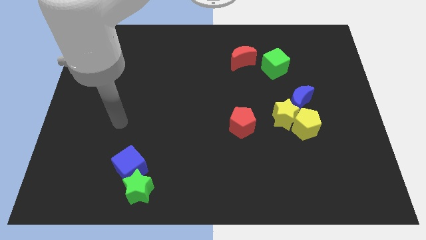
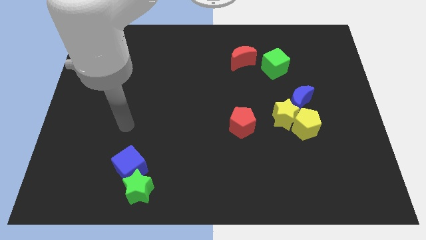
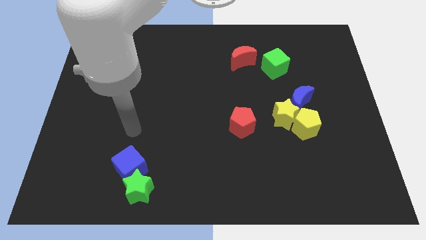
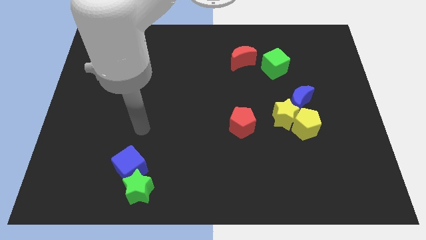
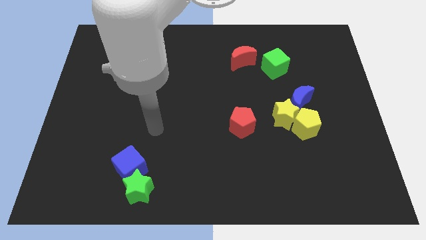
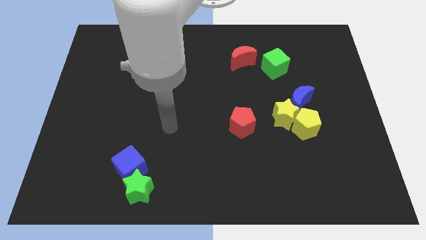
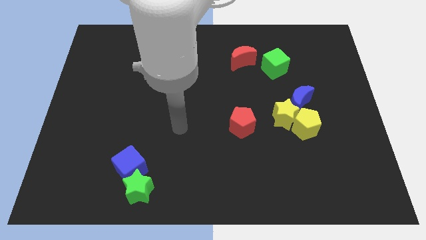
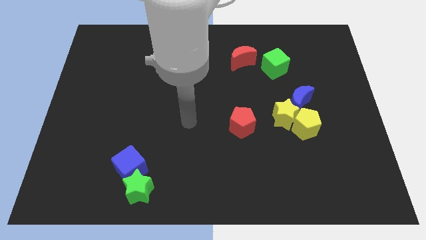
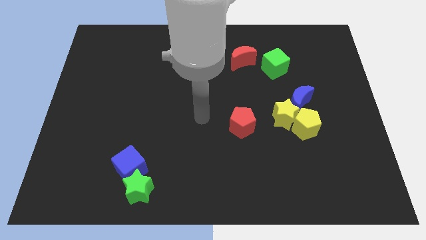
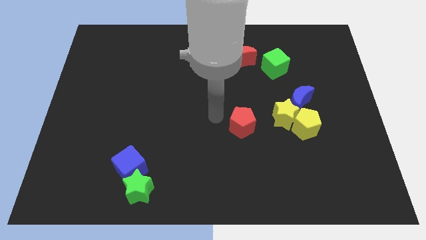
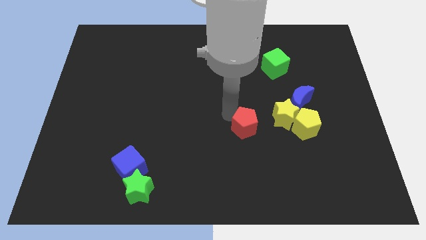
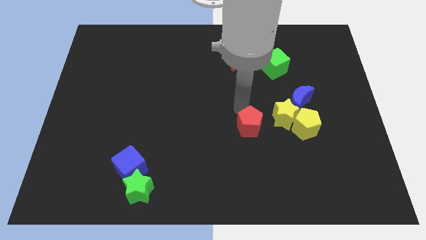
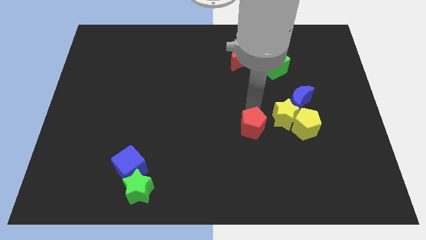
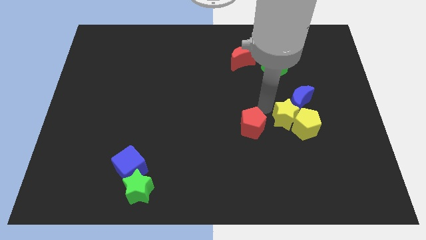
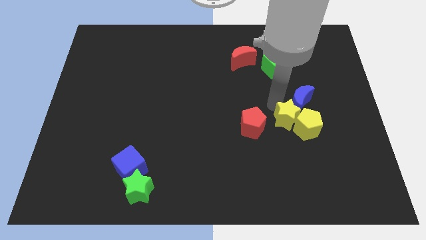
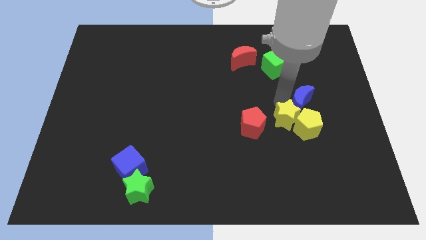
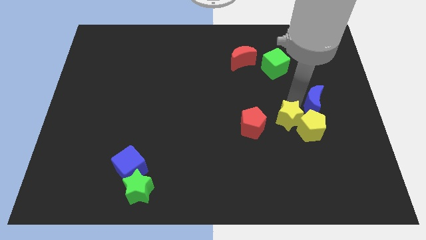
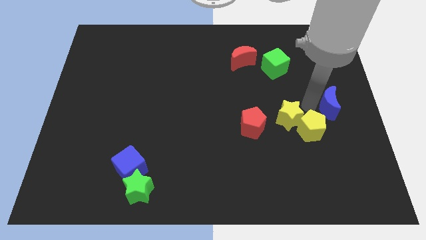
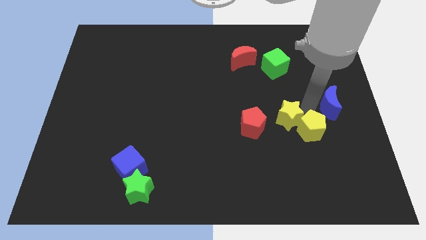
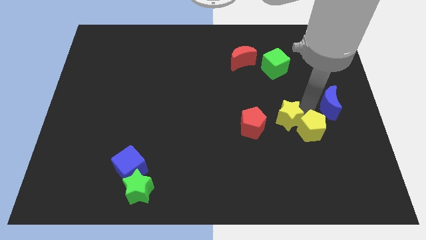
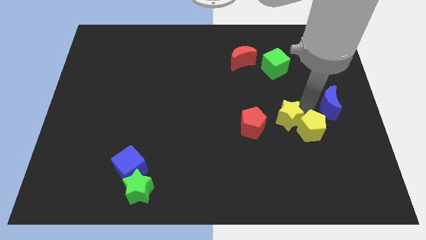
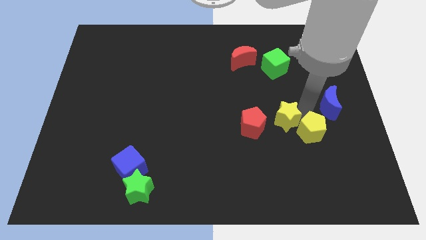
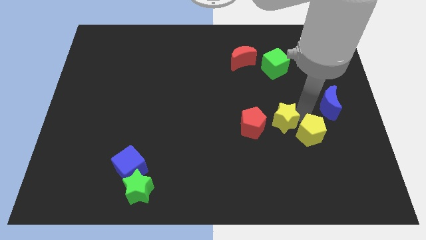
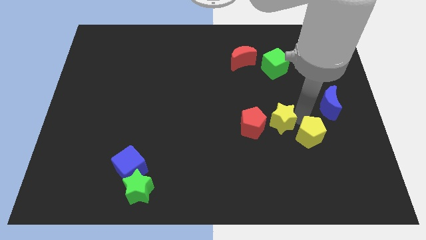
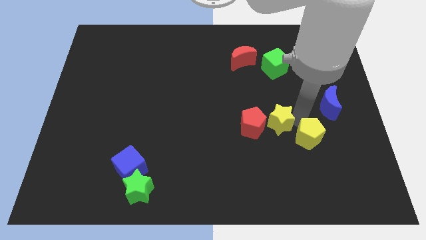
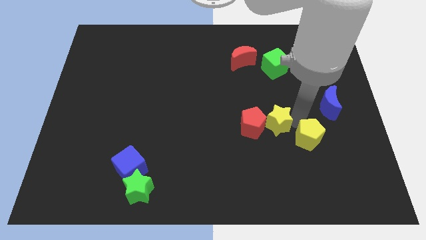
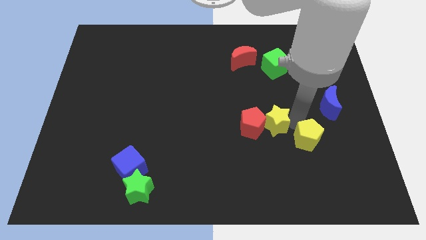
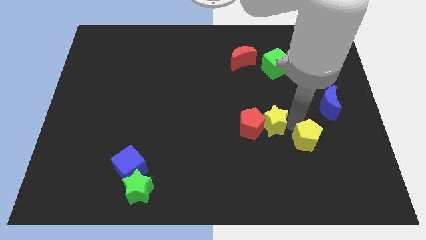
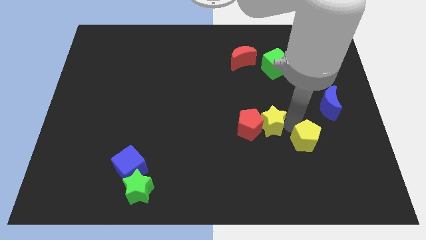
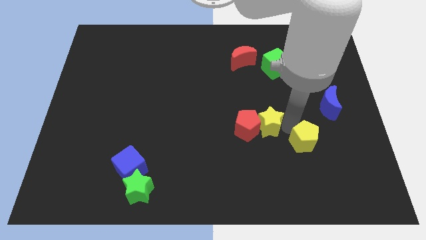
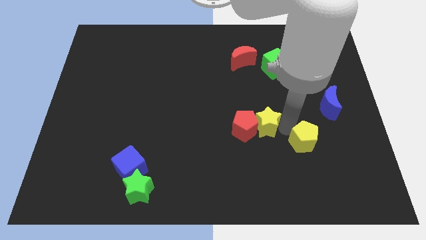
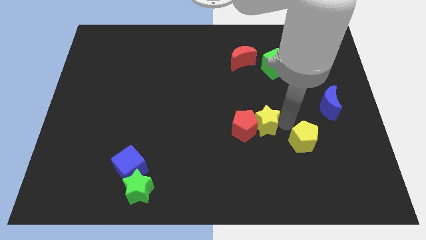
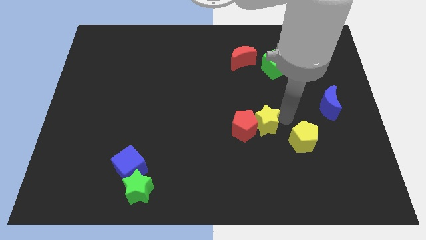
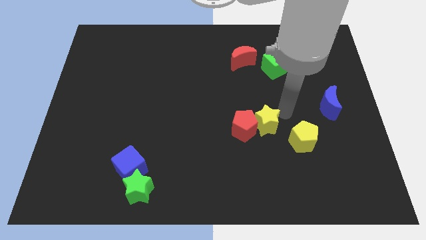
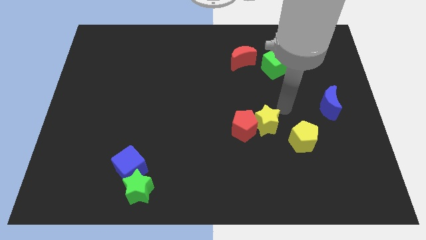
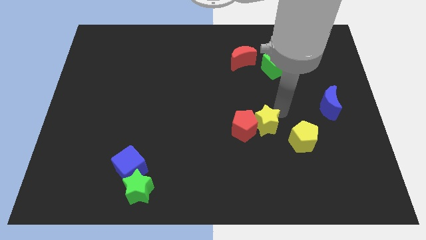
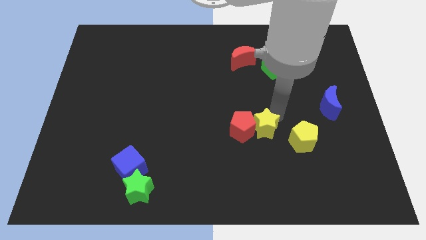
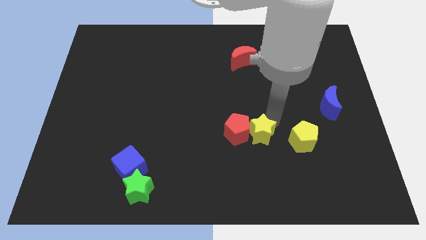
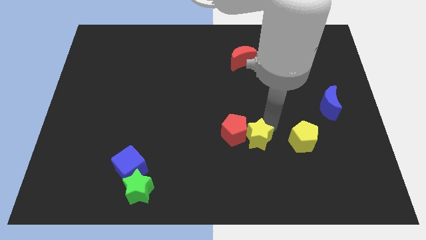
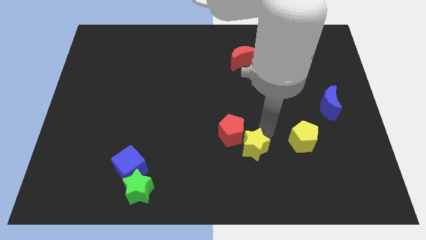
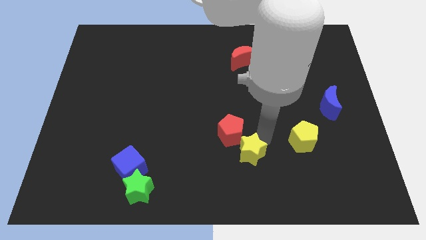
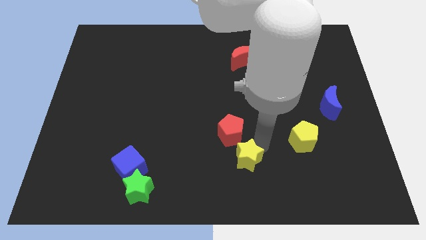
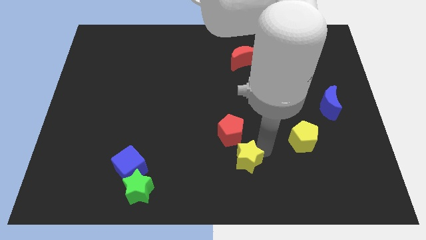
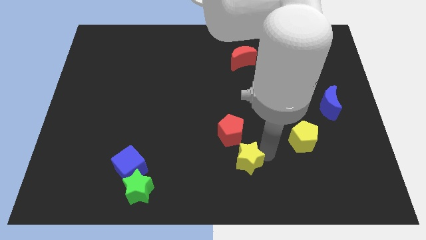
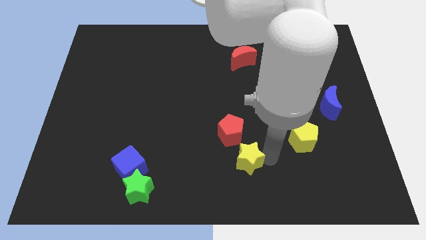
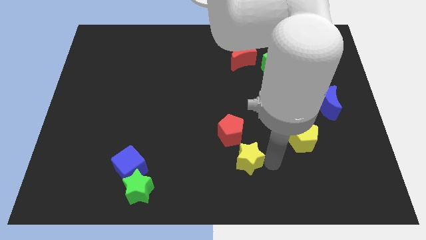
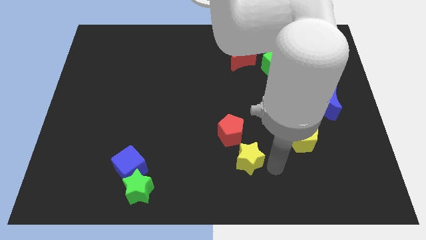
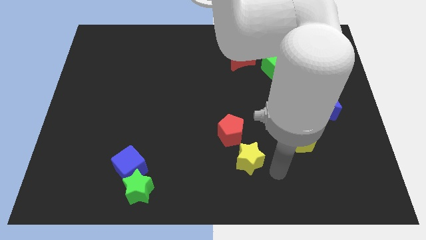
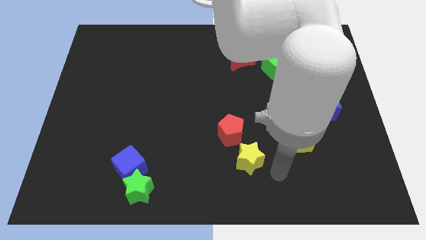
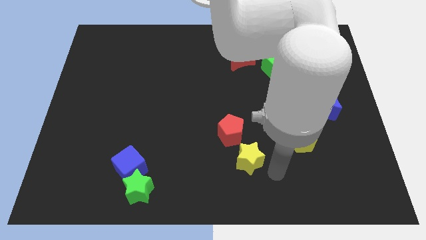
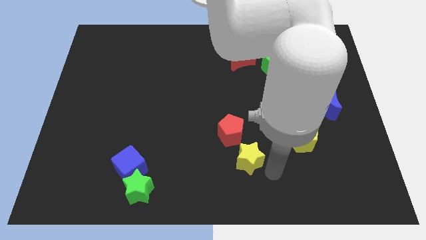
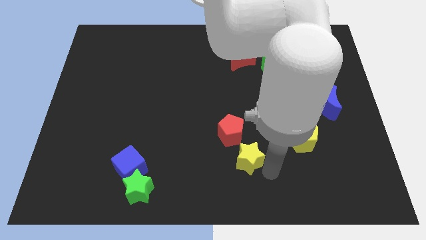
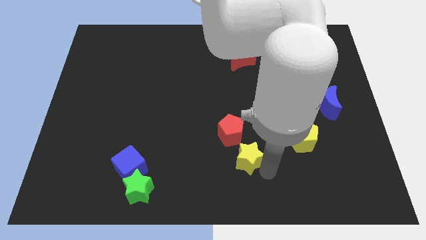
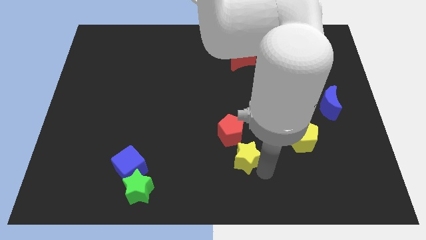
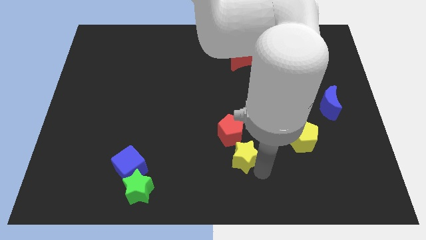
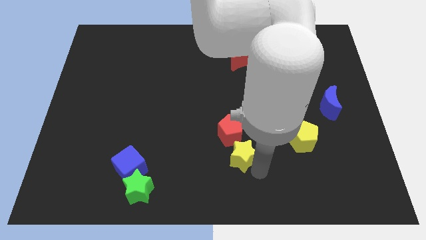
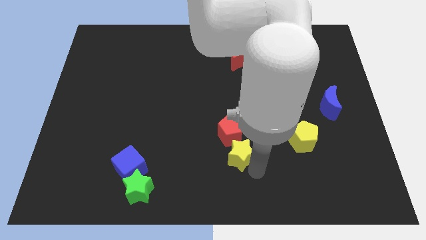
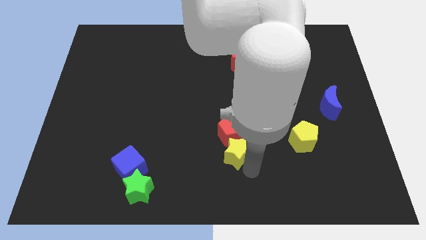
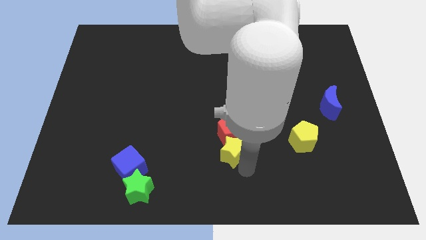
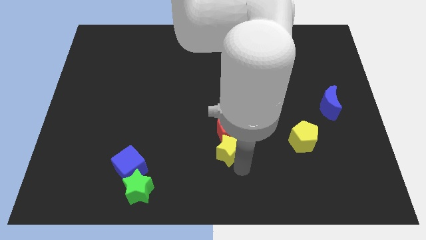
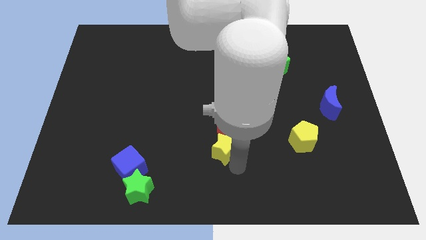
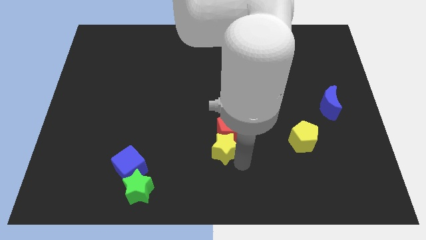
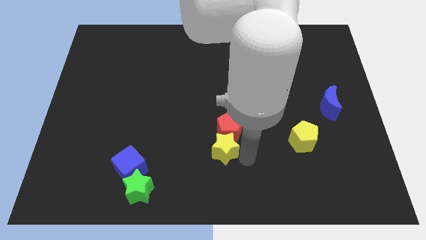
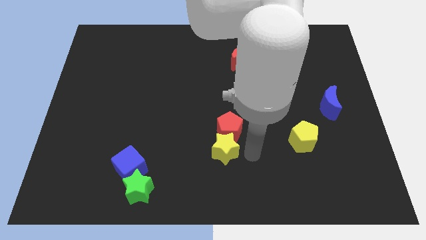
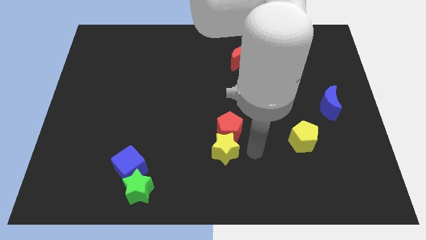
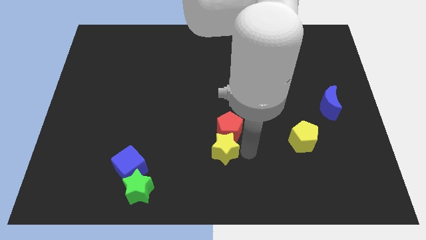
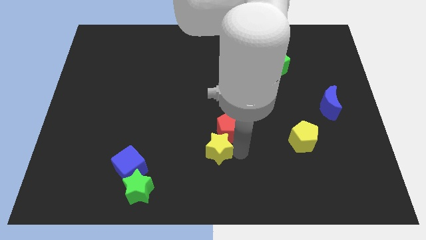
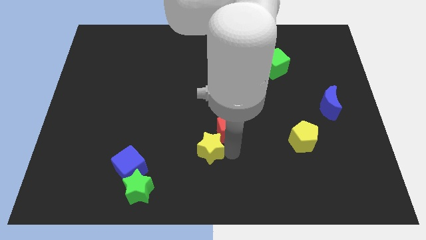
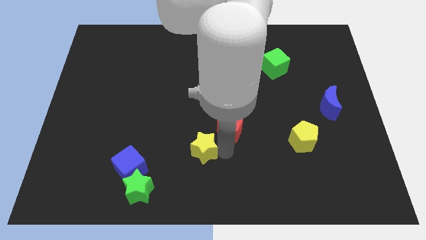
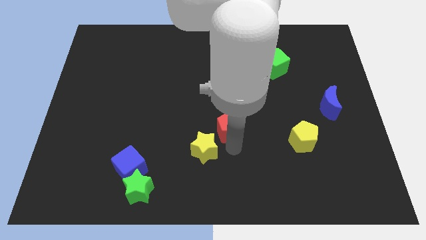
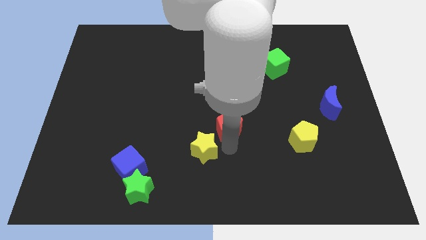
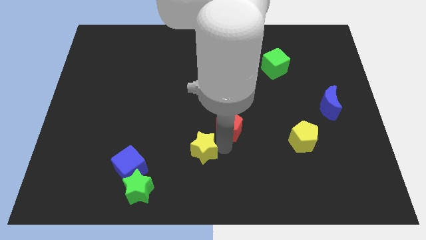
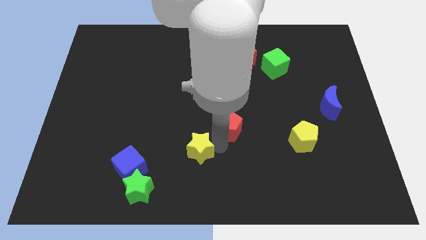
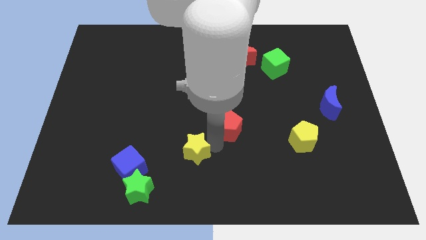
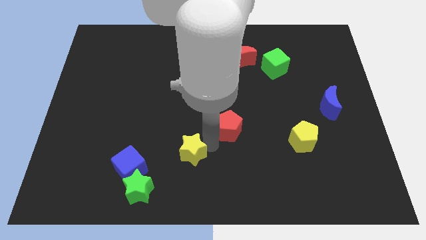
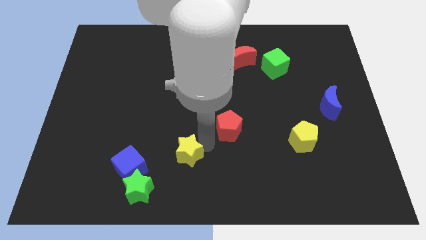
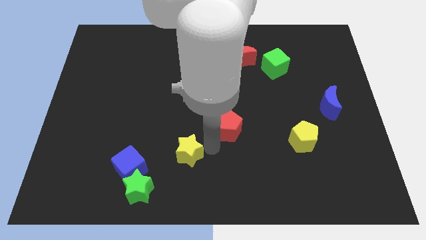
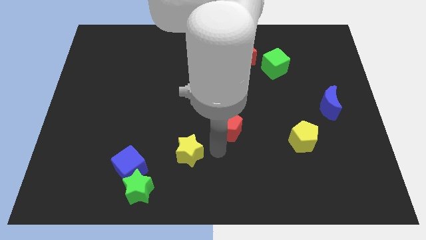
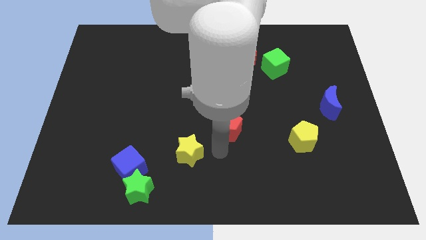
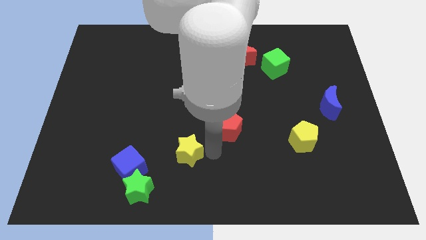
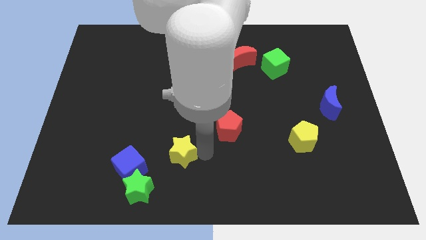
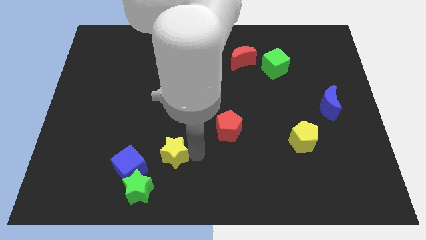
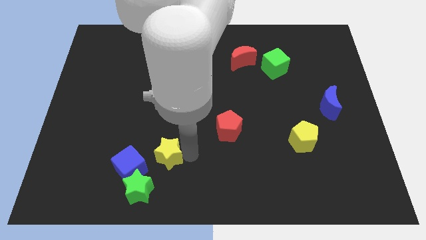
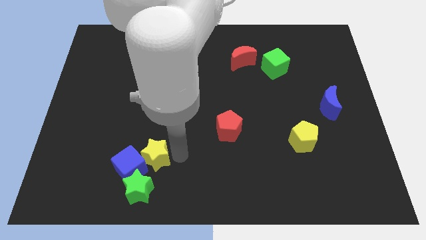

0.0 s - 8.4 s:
push the yellow star next to the blue cube
